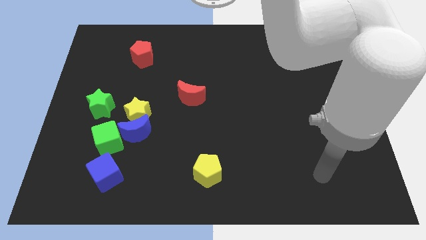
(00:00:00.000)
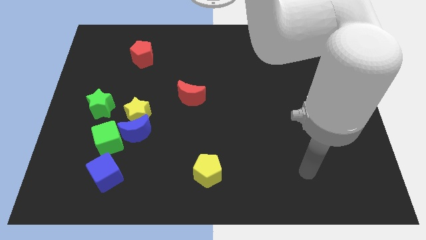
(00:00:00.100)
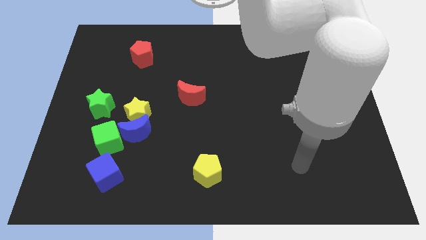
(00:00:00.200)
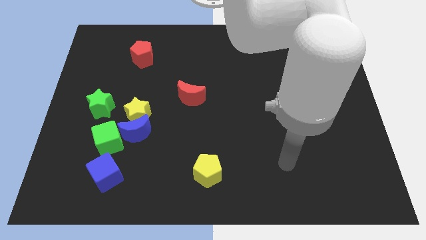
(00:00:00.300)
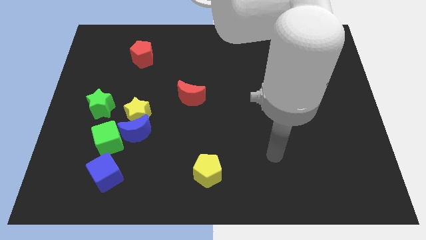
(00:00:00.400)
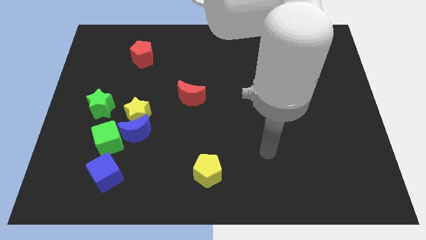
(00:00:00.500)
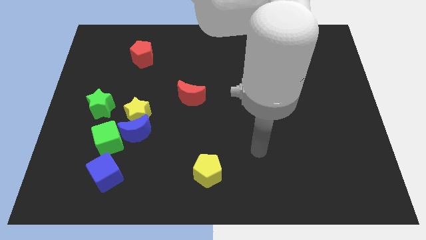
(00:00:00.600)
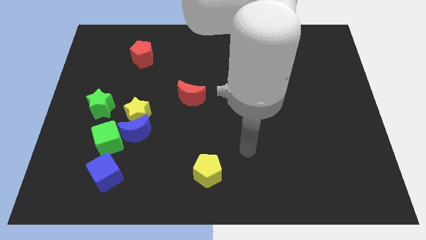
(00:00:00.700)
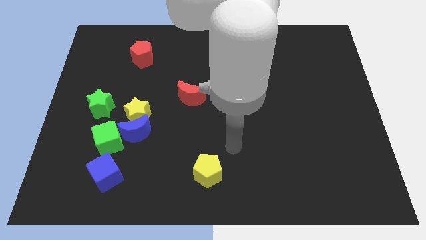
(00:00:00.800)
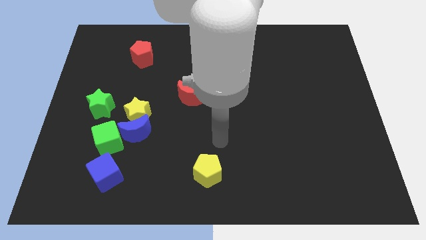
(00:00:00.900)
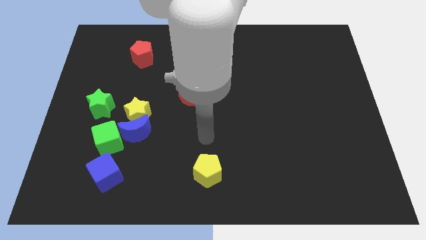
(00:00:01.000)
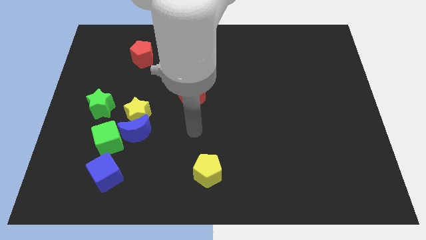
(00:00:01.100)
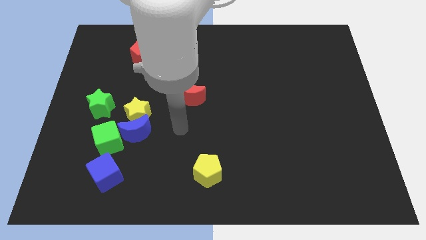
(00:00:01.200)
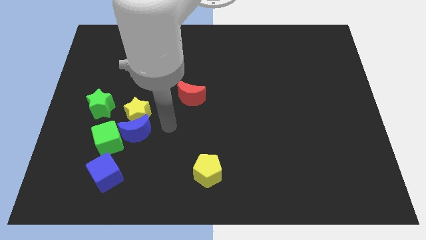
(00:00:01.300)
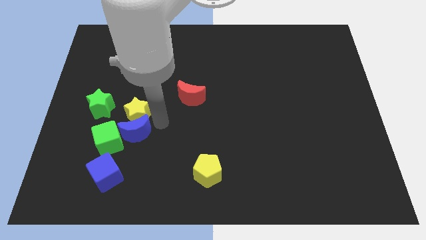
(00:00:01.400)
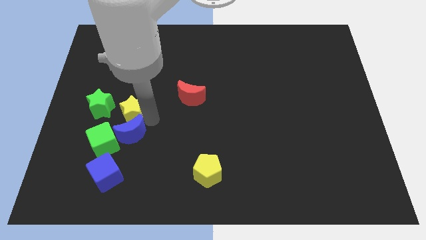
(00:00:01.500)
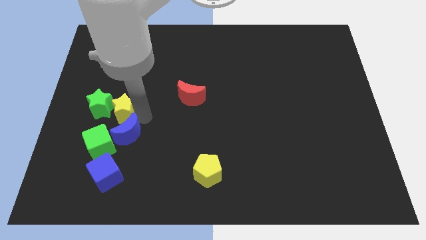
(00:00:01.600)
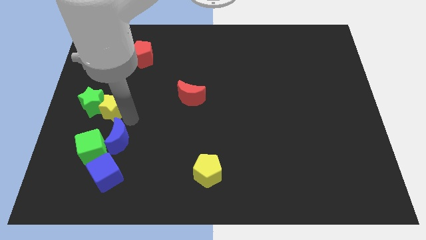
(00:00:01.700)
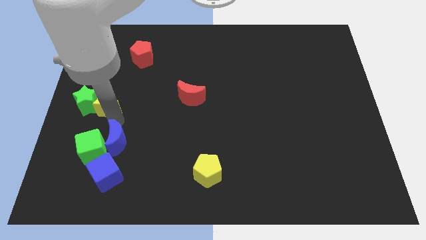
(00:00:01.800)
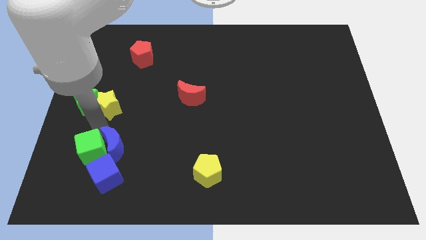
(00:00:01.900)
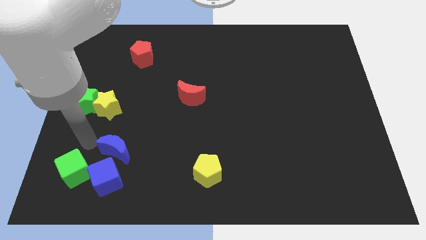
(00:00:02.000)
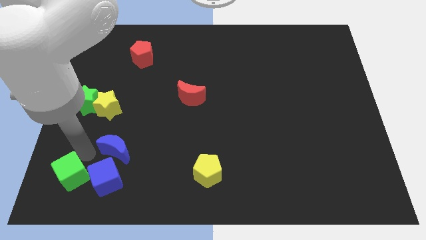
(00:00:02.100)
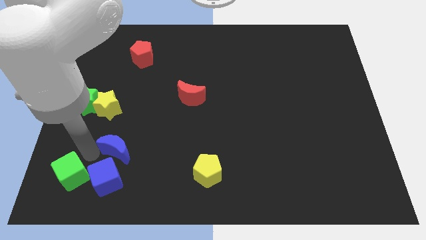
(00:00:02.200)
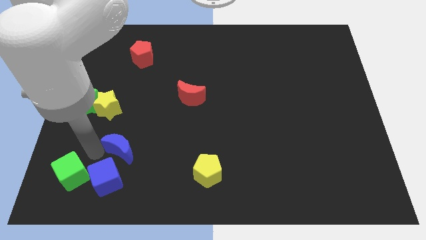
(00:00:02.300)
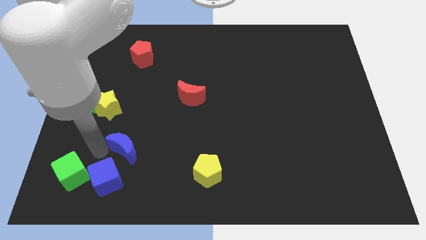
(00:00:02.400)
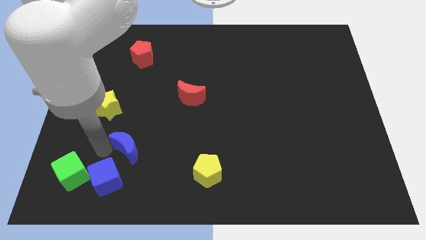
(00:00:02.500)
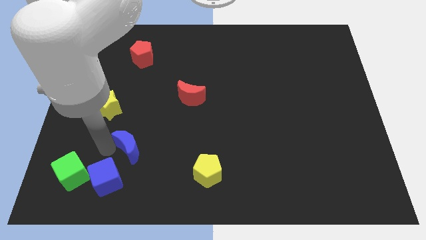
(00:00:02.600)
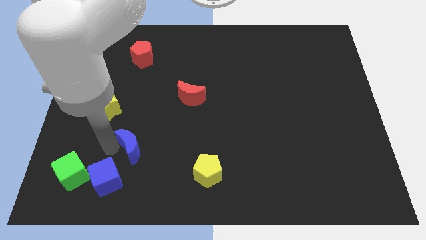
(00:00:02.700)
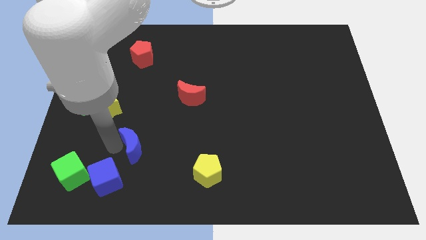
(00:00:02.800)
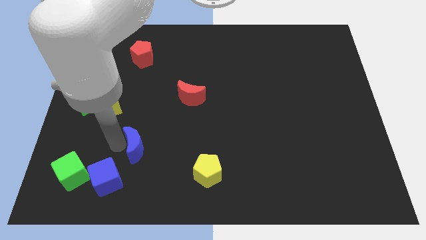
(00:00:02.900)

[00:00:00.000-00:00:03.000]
pull the blue moon apart from the yellow star and green cube

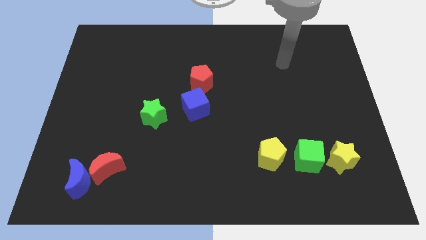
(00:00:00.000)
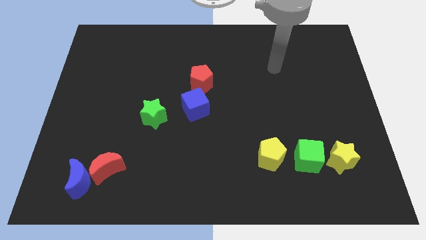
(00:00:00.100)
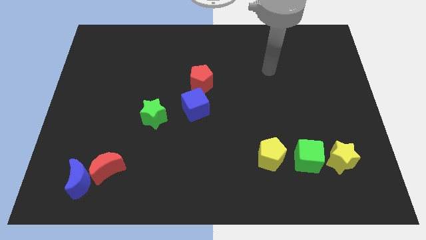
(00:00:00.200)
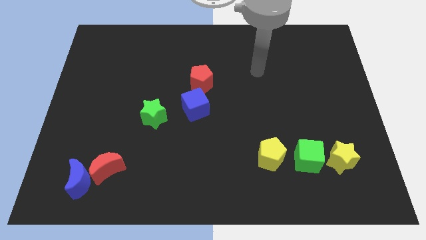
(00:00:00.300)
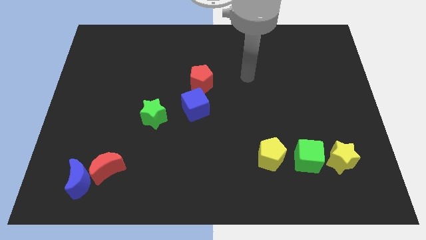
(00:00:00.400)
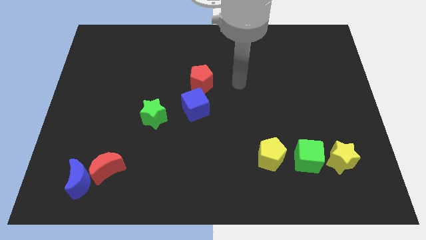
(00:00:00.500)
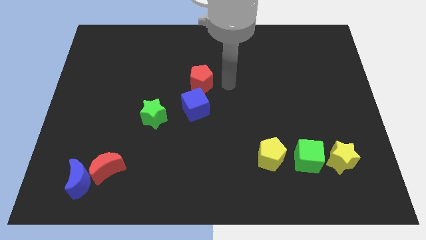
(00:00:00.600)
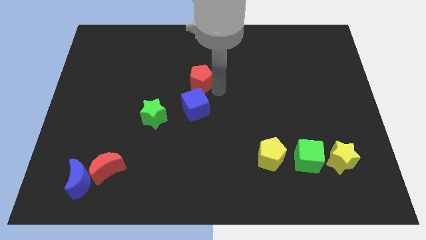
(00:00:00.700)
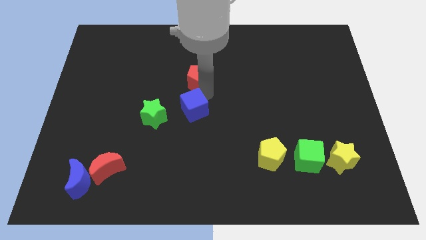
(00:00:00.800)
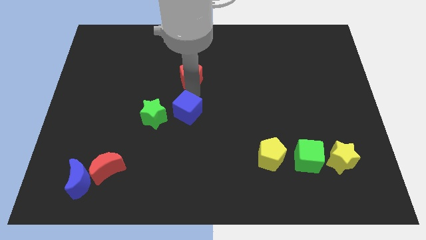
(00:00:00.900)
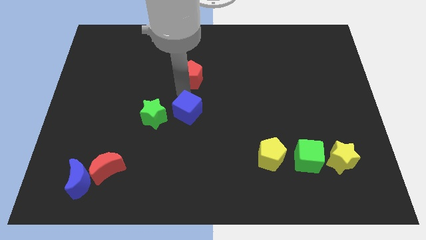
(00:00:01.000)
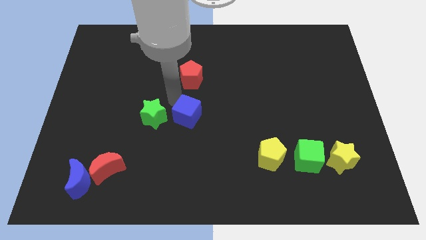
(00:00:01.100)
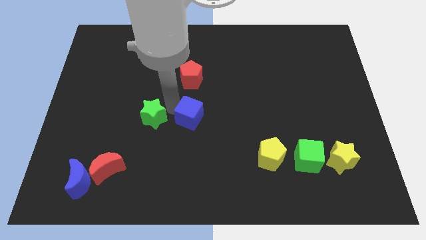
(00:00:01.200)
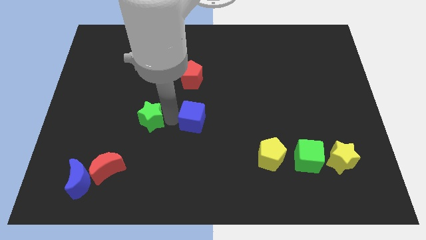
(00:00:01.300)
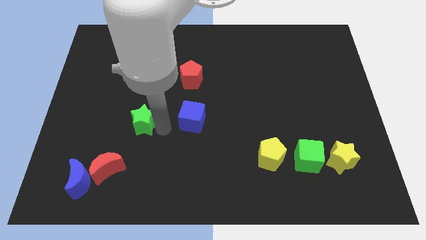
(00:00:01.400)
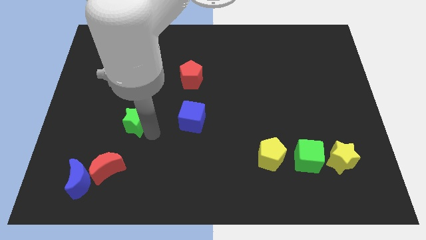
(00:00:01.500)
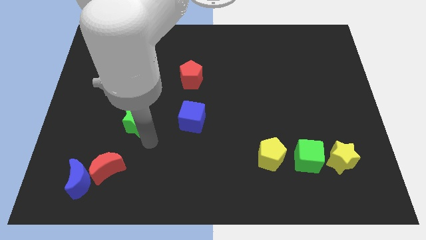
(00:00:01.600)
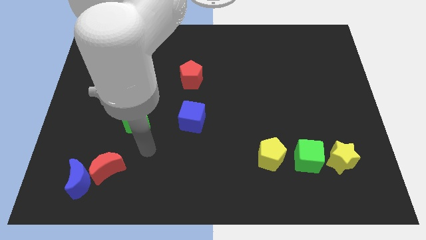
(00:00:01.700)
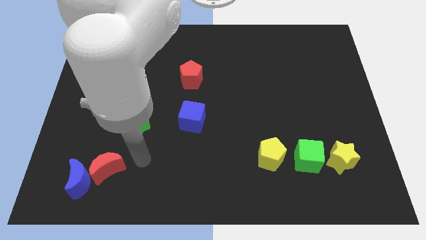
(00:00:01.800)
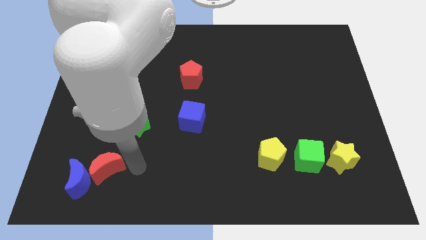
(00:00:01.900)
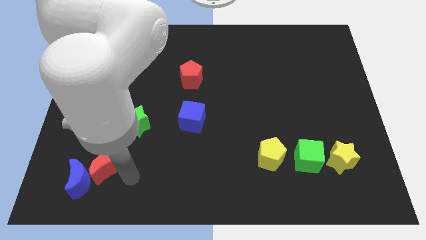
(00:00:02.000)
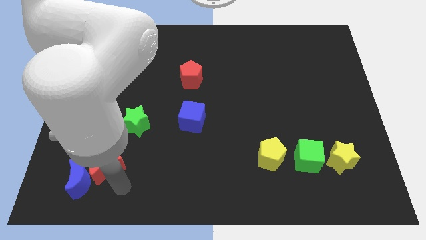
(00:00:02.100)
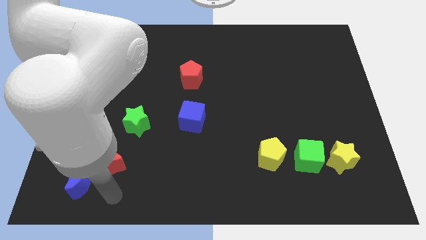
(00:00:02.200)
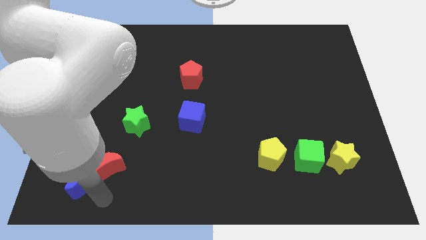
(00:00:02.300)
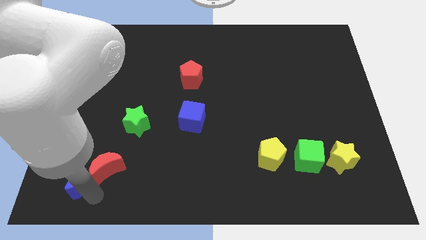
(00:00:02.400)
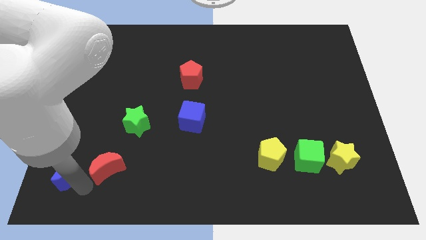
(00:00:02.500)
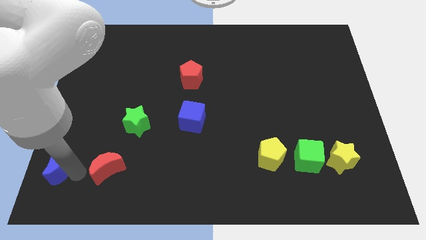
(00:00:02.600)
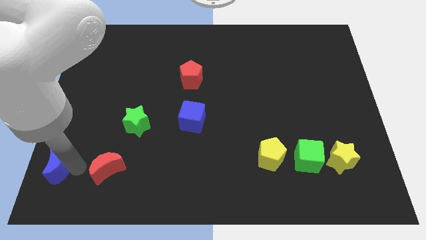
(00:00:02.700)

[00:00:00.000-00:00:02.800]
pull the red moon apart from the blue moon

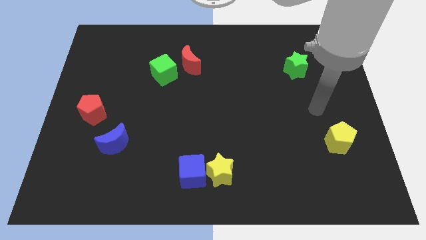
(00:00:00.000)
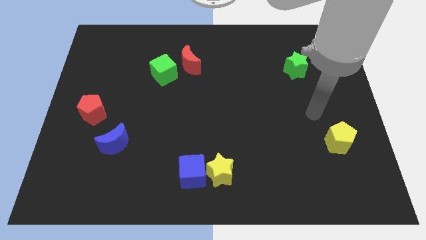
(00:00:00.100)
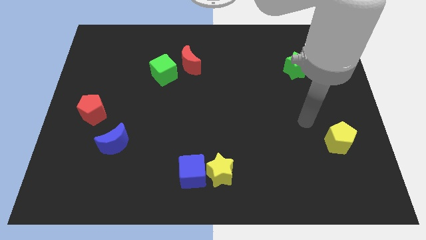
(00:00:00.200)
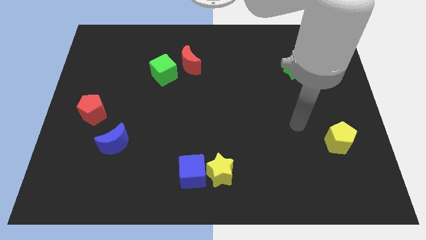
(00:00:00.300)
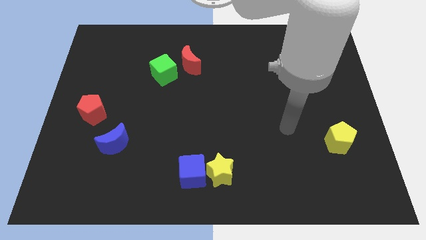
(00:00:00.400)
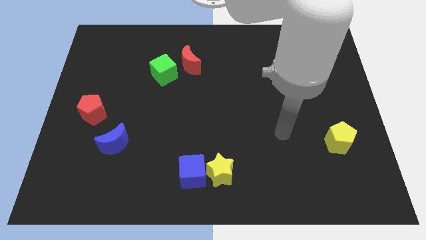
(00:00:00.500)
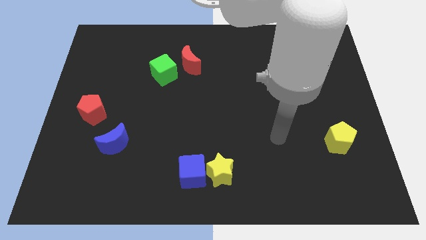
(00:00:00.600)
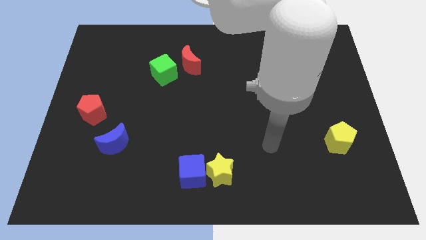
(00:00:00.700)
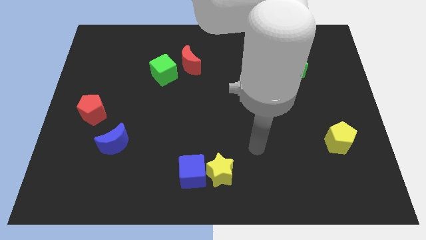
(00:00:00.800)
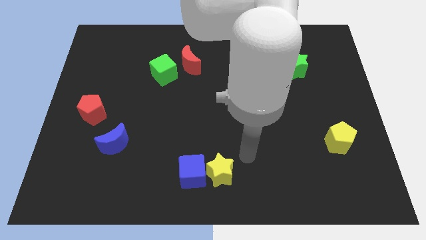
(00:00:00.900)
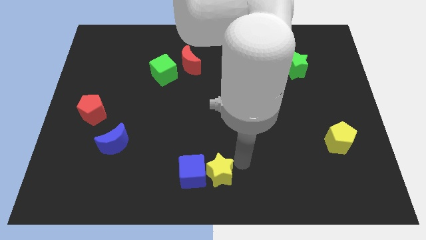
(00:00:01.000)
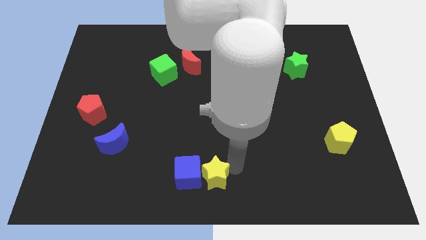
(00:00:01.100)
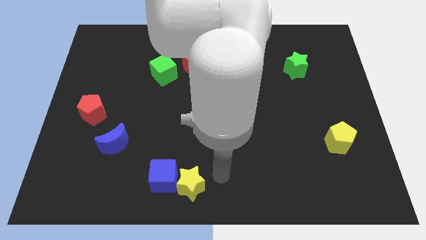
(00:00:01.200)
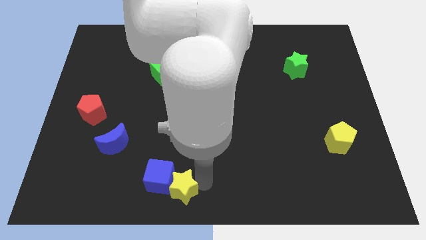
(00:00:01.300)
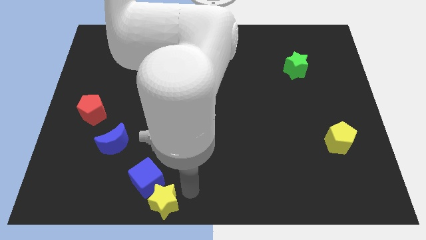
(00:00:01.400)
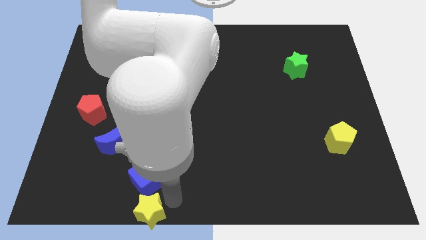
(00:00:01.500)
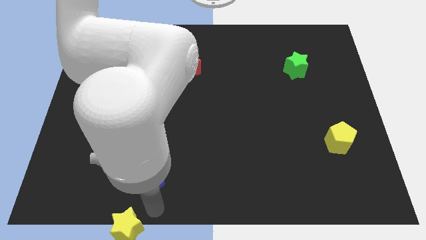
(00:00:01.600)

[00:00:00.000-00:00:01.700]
separate the blue cube from the yellow star

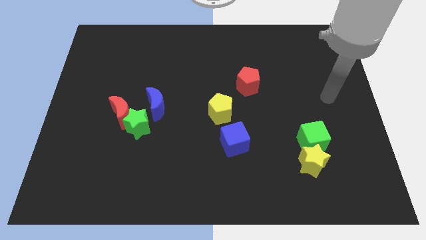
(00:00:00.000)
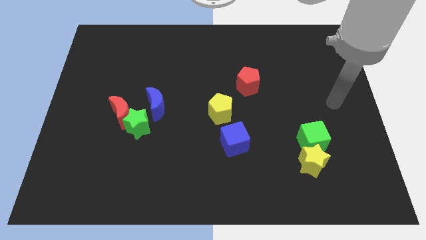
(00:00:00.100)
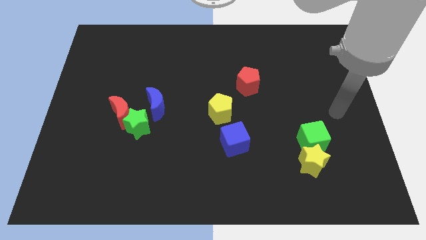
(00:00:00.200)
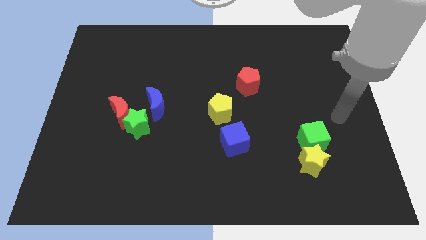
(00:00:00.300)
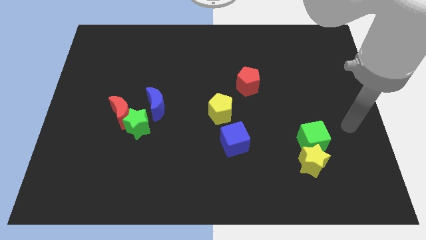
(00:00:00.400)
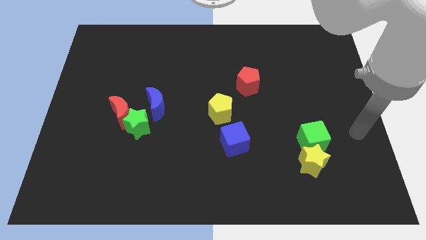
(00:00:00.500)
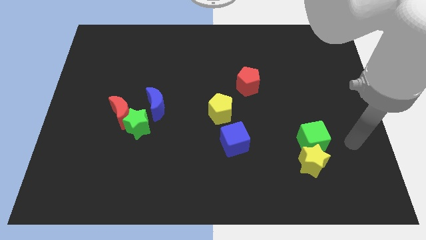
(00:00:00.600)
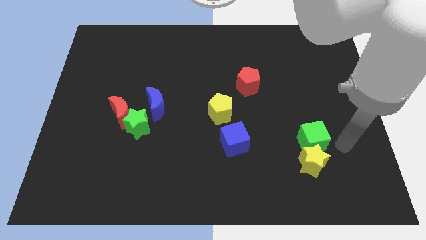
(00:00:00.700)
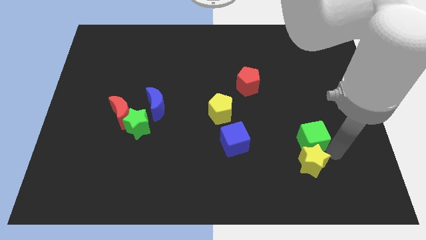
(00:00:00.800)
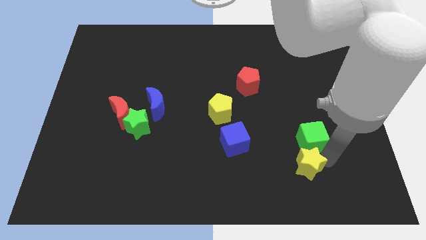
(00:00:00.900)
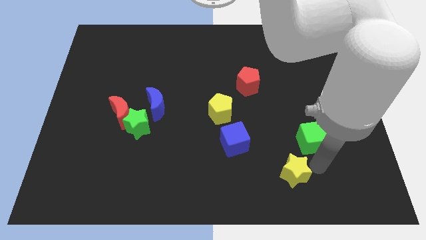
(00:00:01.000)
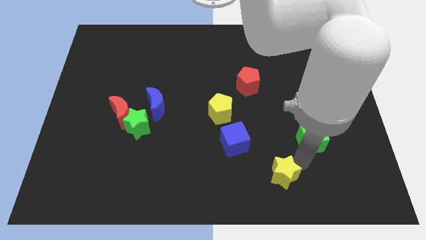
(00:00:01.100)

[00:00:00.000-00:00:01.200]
separate the green cube from the yellow star

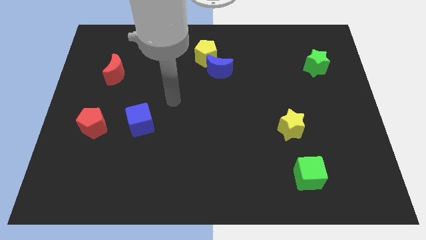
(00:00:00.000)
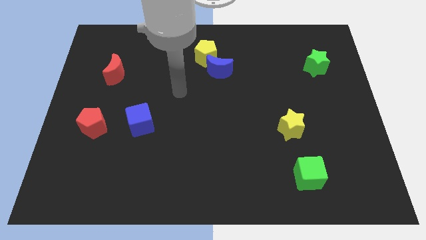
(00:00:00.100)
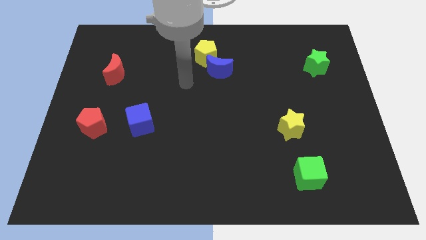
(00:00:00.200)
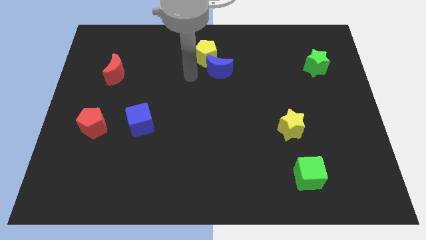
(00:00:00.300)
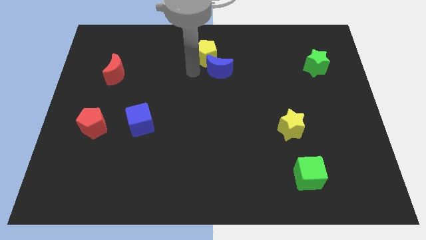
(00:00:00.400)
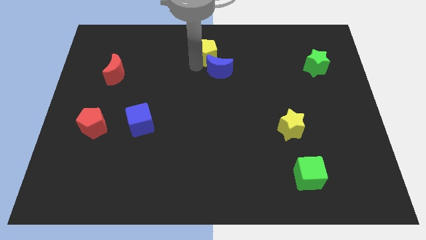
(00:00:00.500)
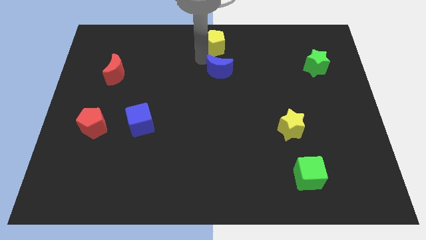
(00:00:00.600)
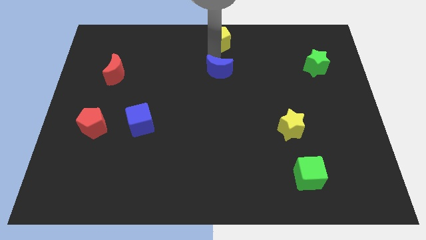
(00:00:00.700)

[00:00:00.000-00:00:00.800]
separate the blue moon from the yellow pentagon
